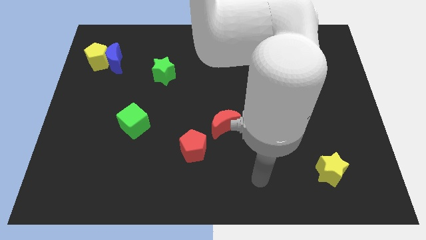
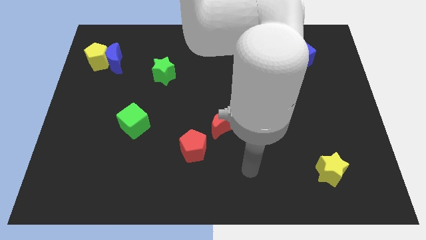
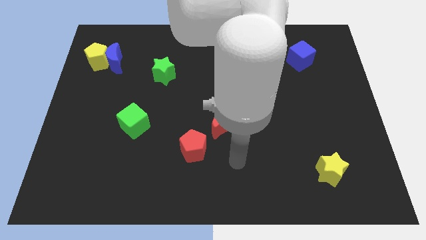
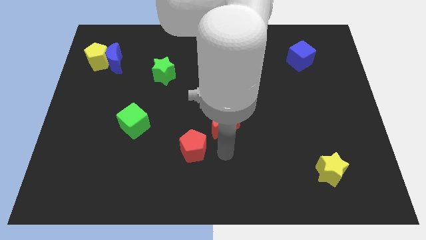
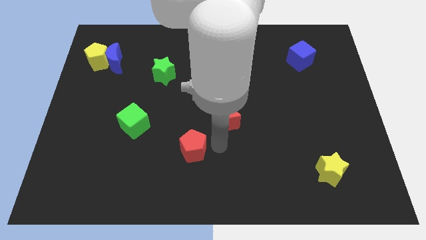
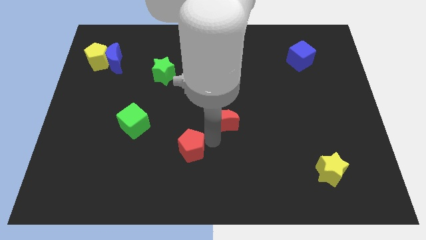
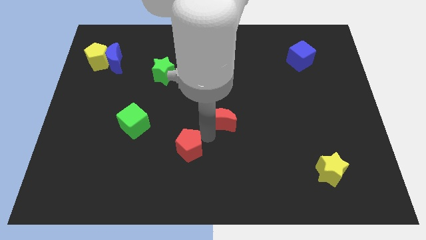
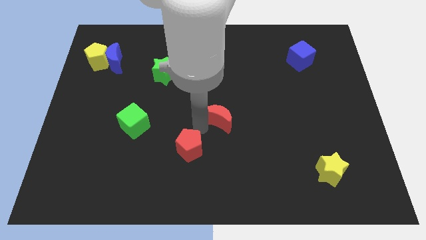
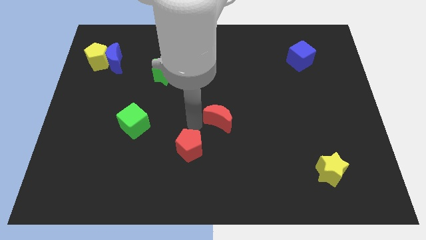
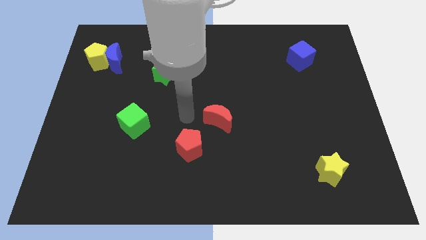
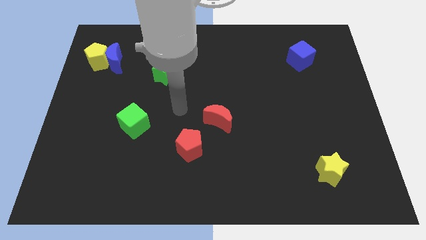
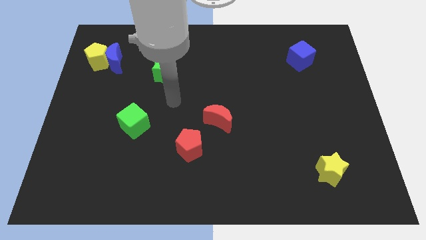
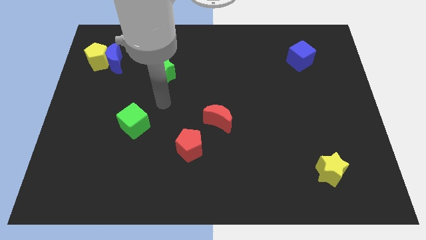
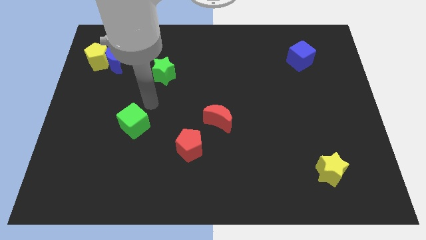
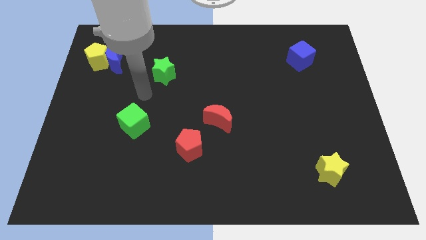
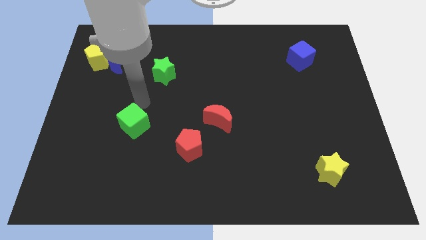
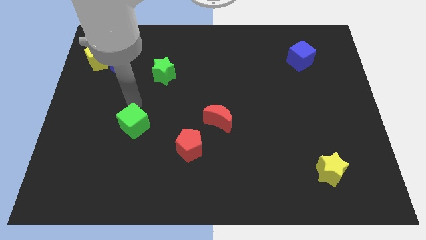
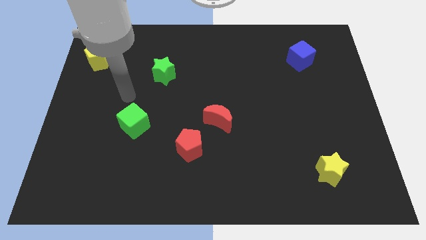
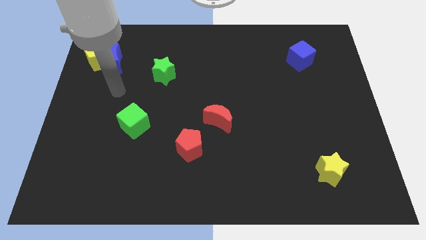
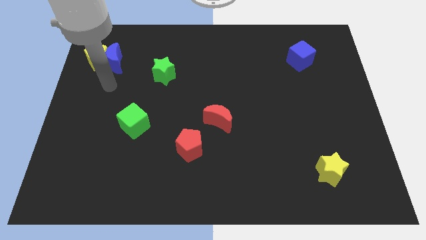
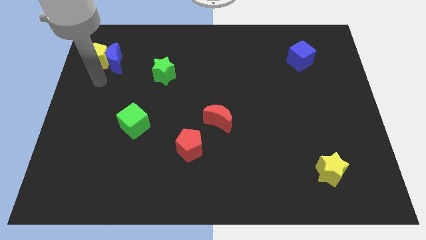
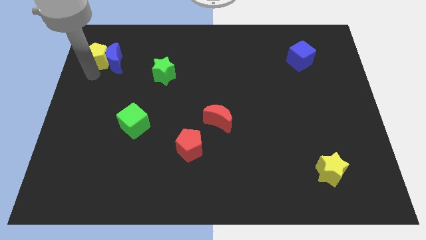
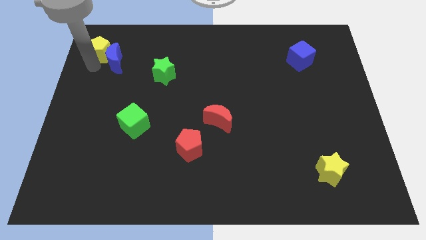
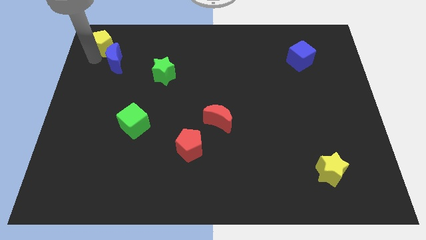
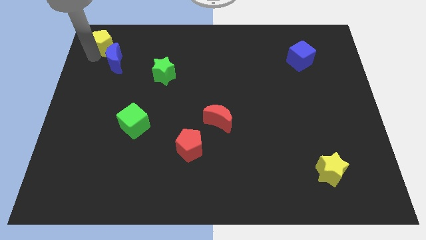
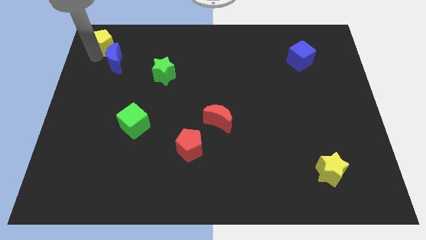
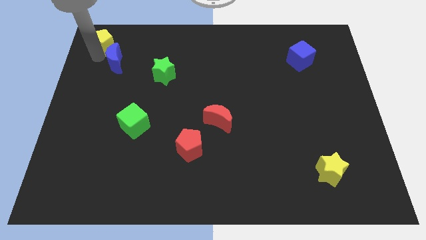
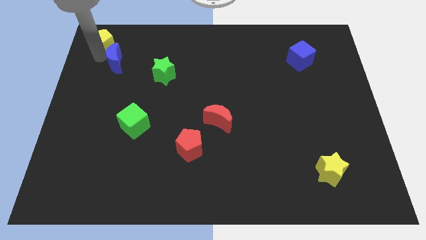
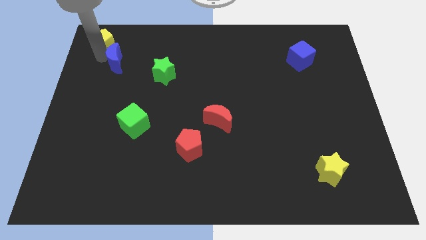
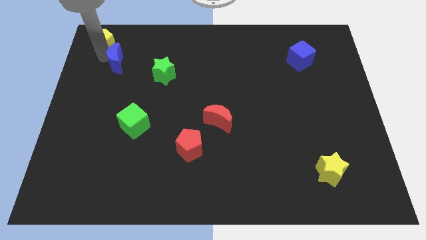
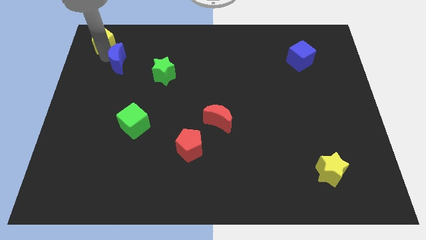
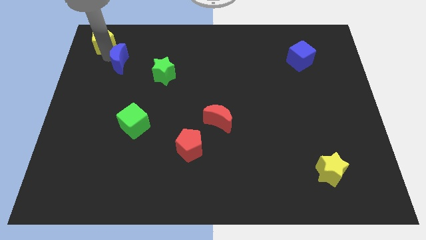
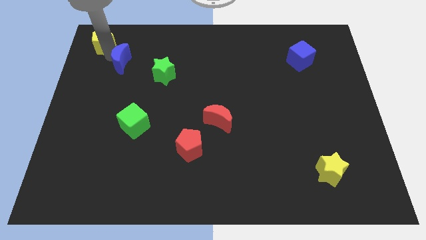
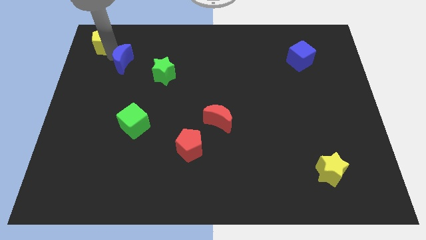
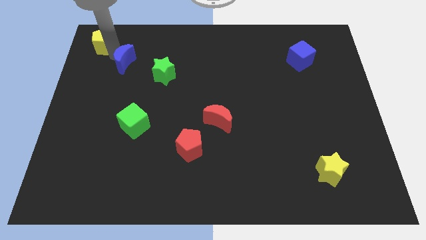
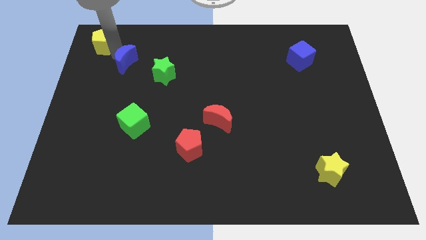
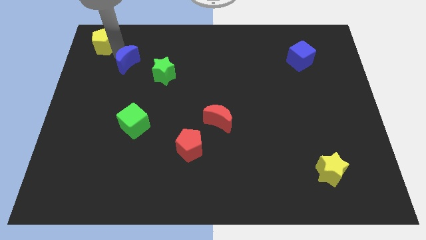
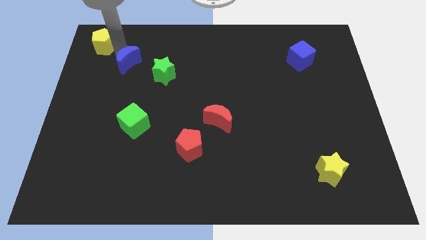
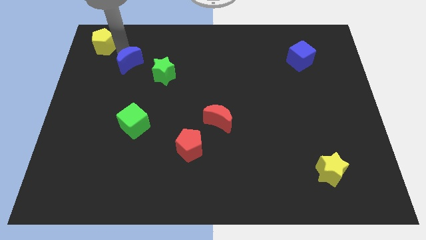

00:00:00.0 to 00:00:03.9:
pull the blue moon apart from the yellow pentagon

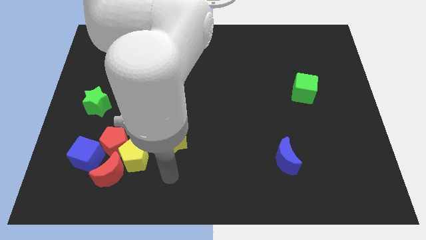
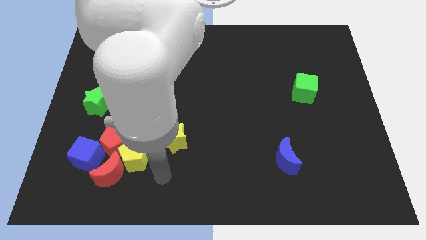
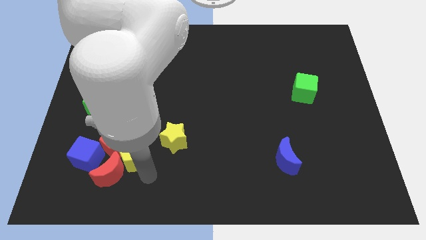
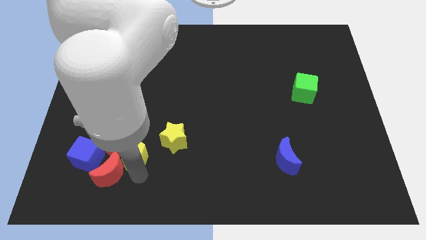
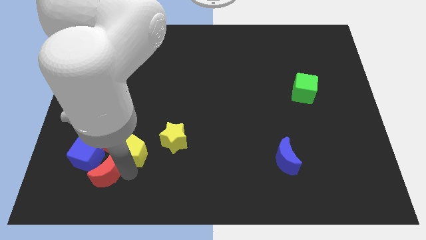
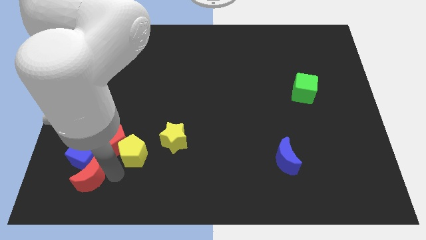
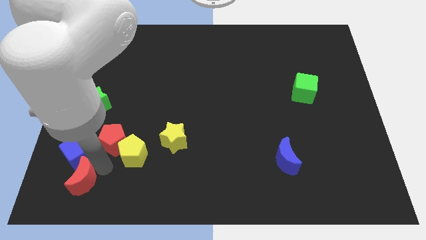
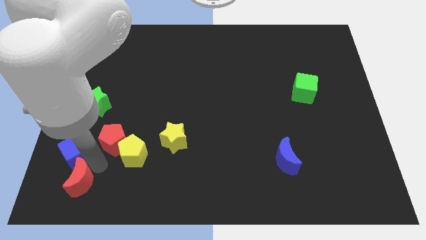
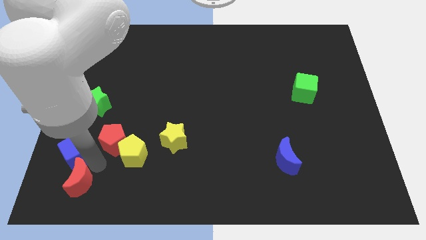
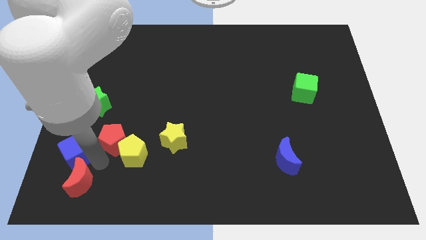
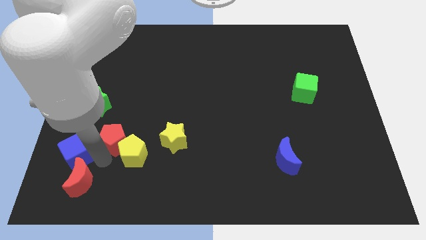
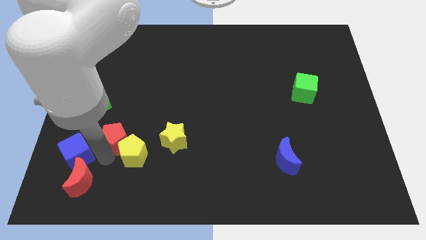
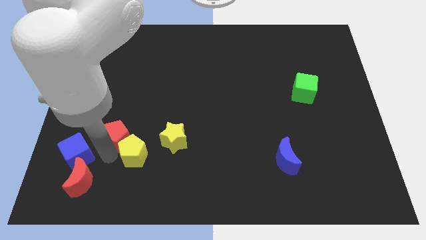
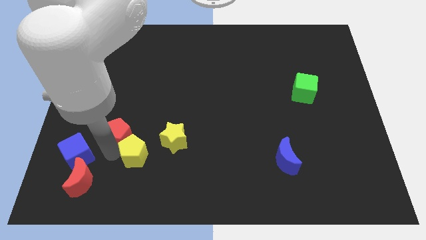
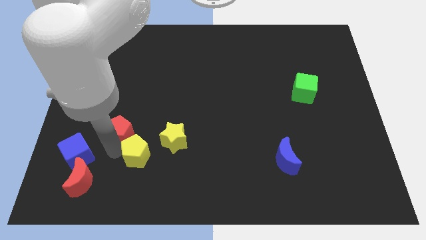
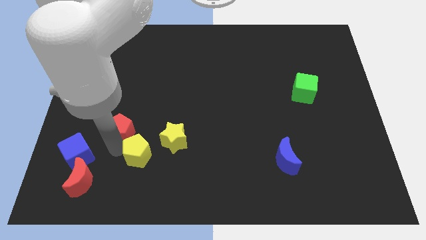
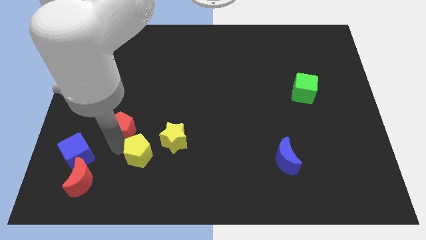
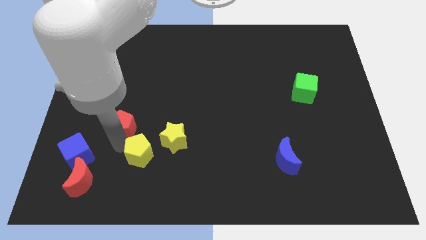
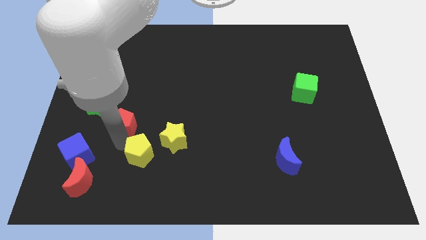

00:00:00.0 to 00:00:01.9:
move the red pentagon away from the group of blocks

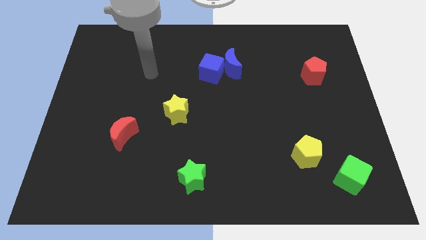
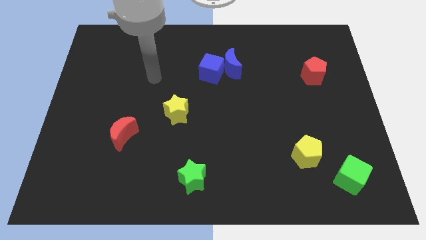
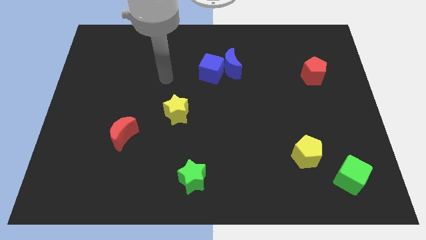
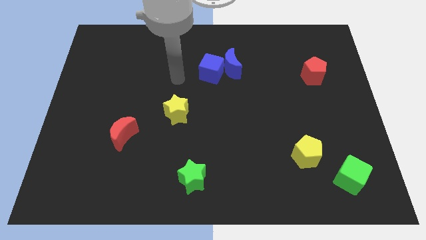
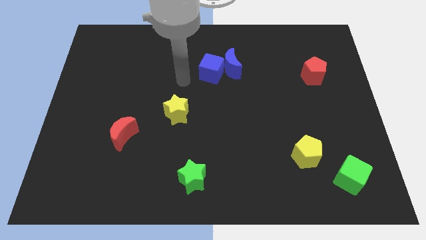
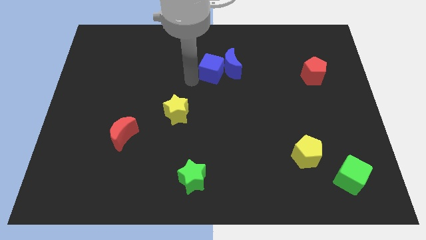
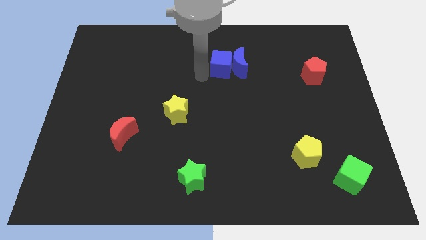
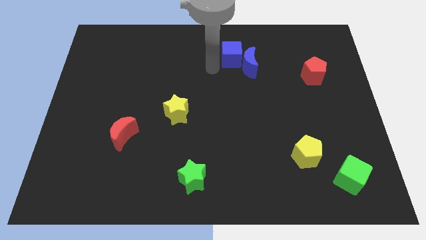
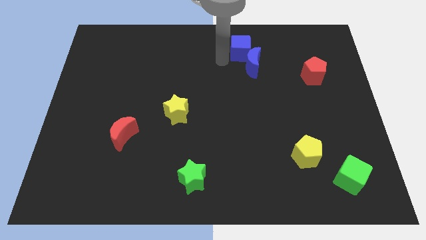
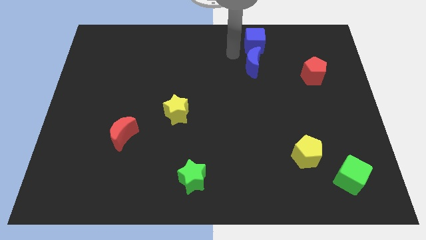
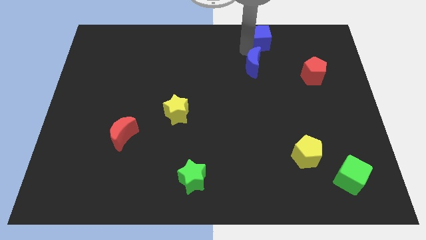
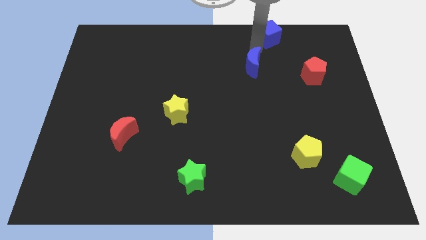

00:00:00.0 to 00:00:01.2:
separate the blue moon from the blue cube

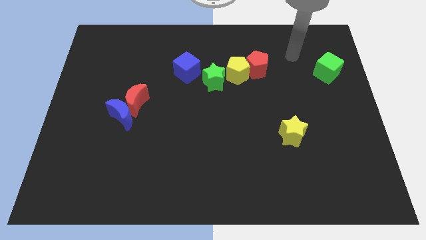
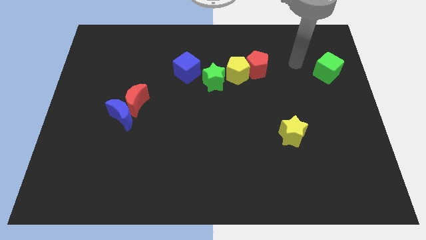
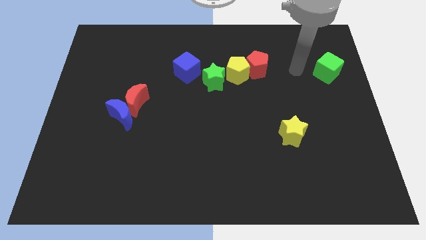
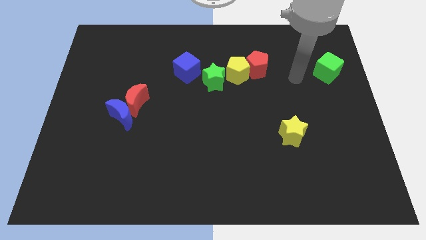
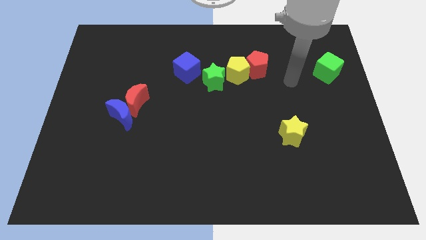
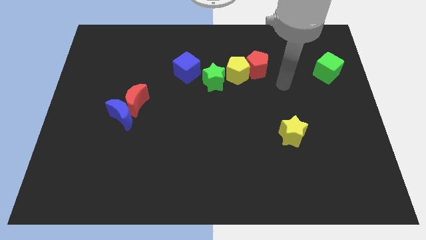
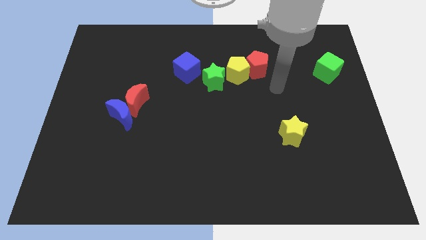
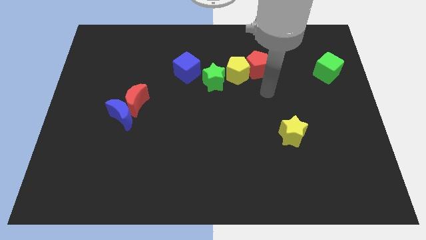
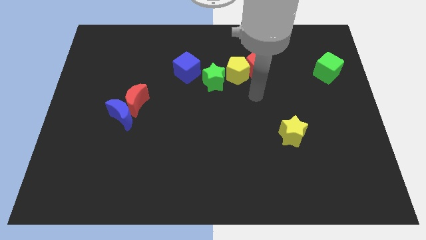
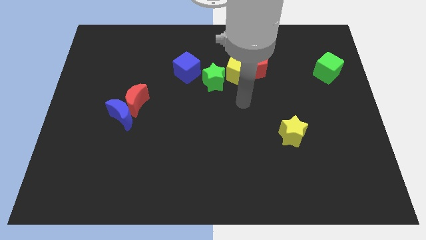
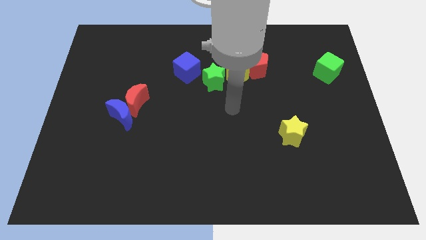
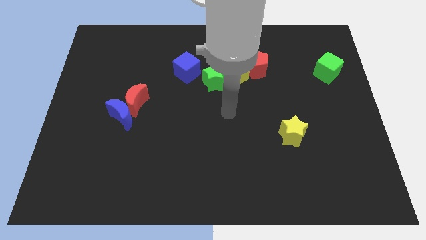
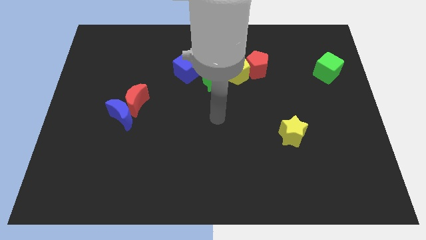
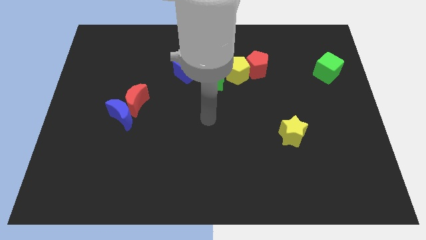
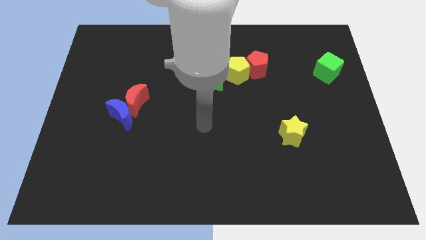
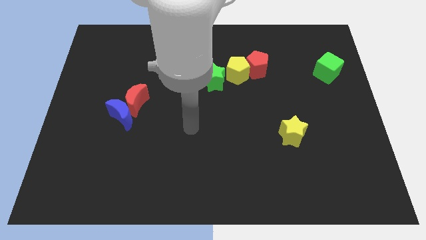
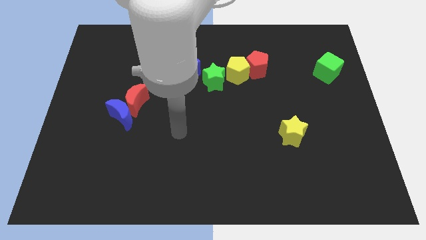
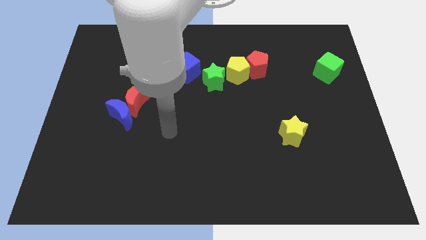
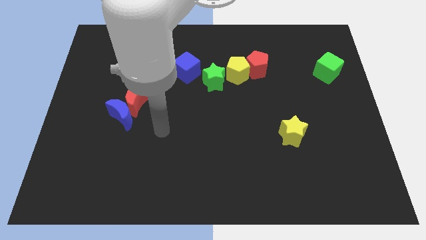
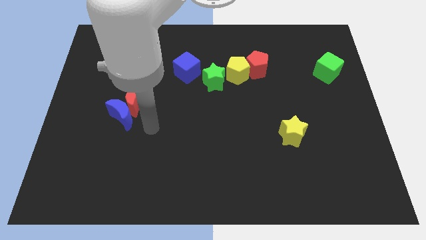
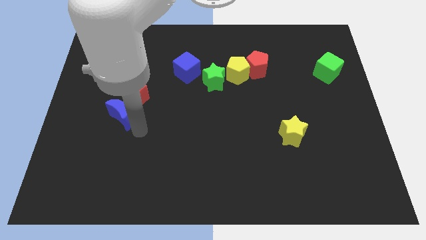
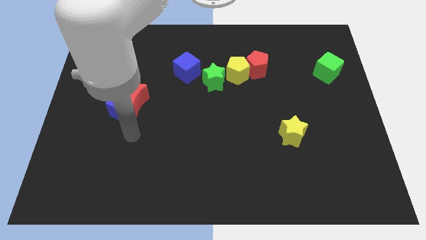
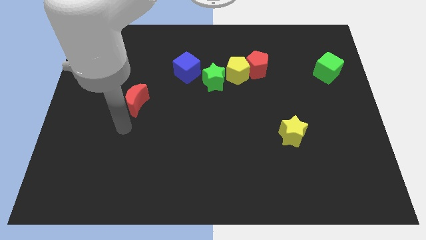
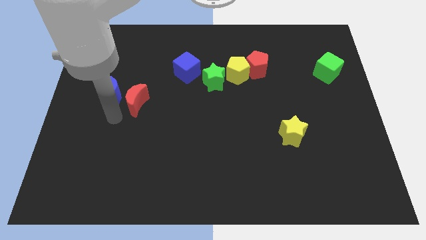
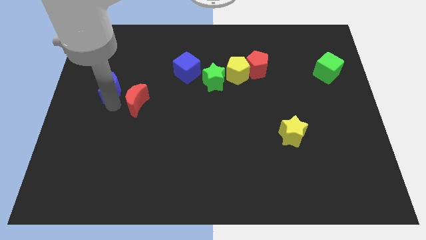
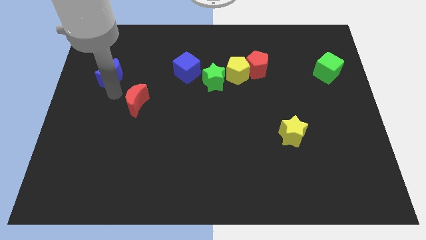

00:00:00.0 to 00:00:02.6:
pull the red moon apart from the blue moon
